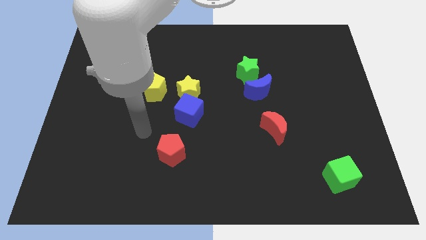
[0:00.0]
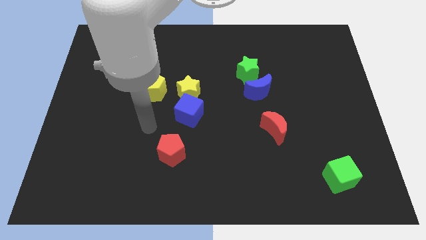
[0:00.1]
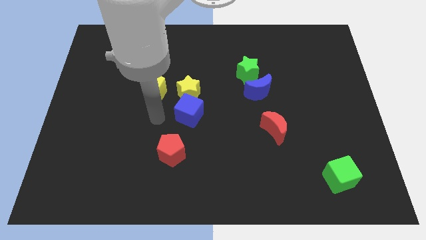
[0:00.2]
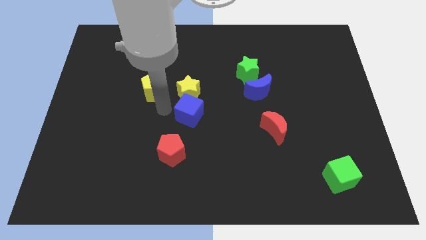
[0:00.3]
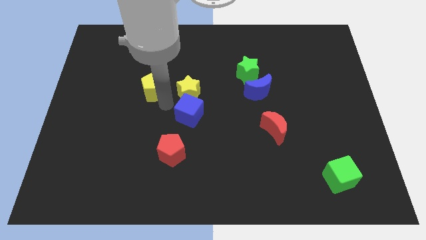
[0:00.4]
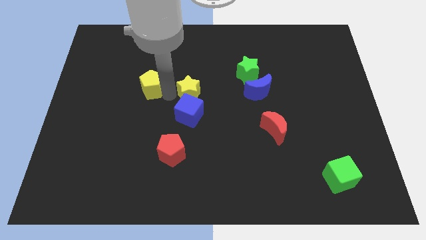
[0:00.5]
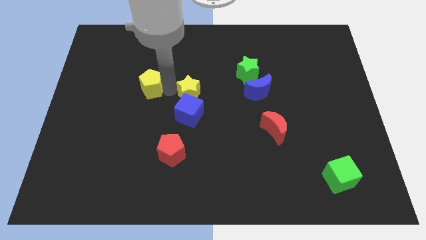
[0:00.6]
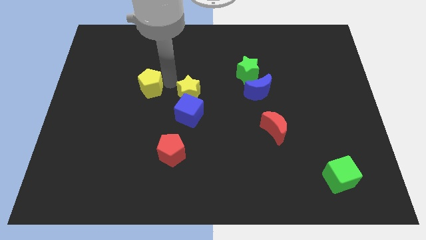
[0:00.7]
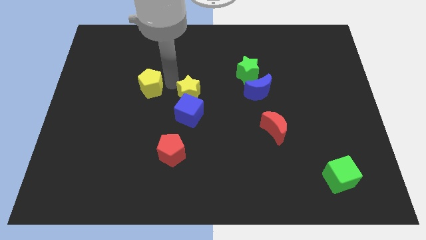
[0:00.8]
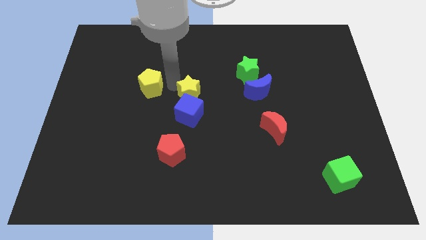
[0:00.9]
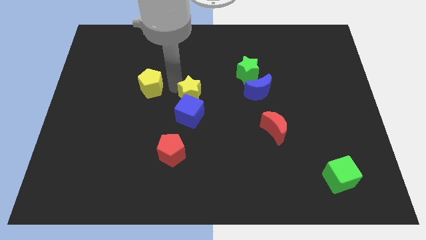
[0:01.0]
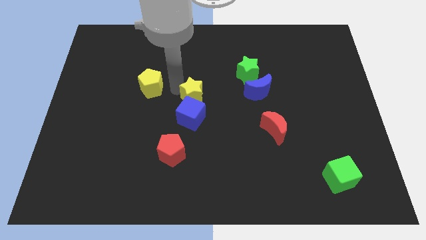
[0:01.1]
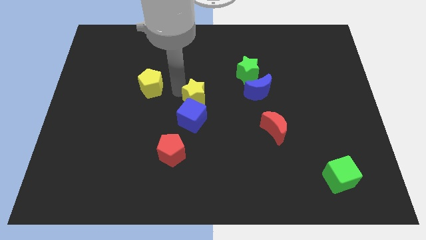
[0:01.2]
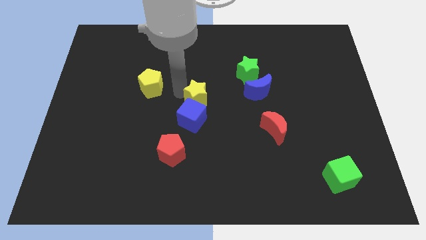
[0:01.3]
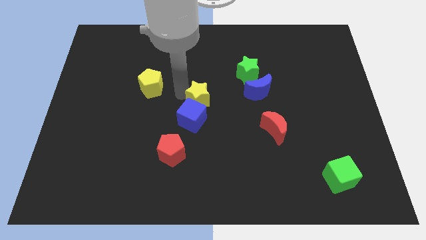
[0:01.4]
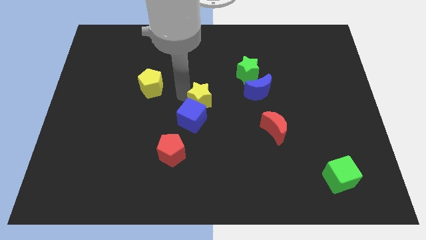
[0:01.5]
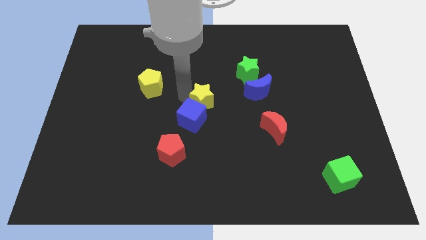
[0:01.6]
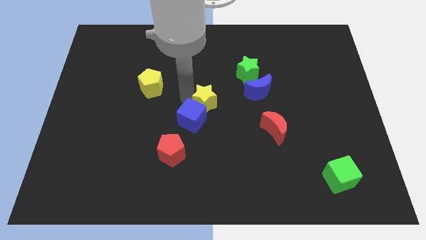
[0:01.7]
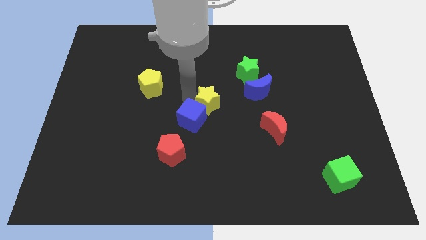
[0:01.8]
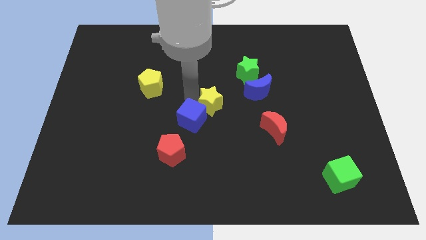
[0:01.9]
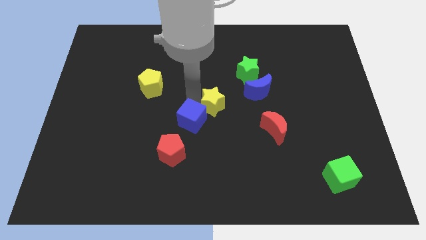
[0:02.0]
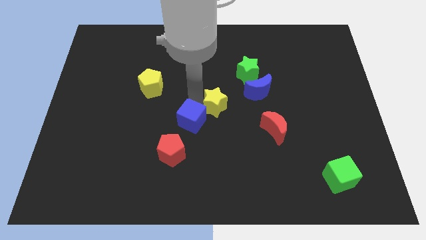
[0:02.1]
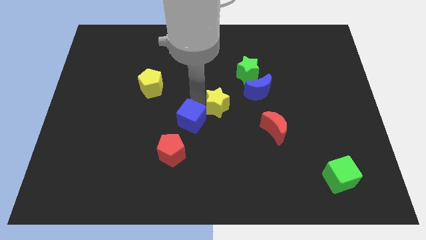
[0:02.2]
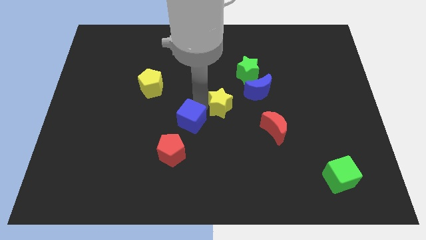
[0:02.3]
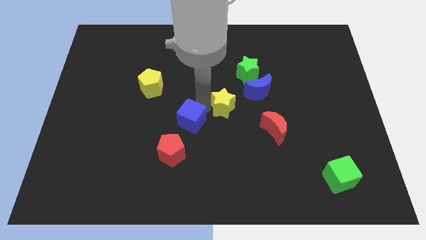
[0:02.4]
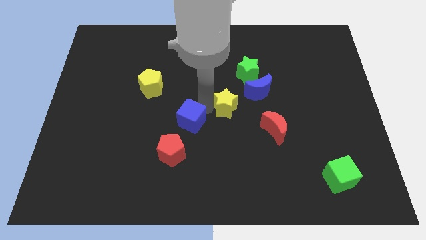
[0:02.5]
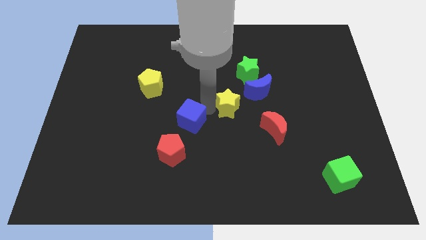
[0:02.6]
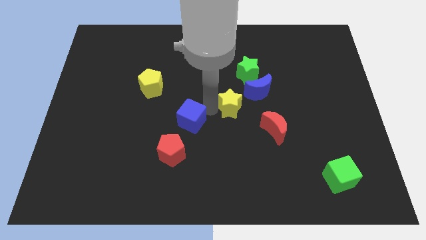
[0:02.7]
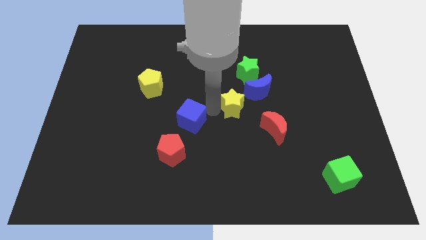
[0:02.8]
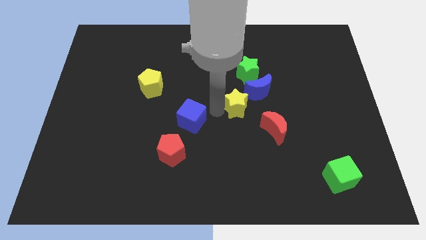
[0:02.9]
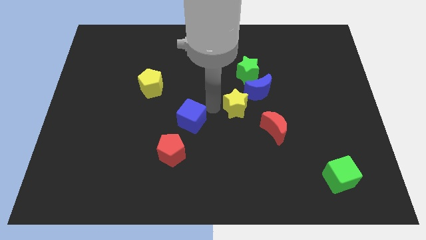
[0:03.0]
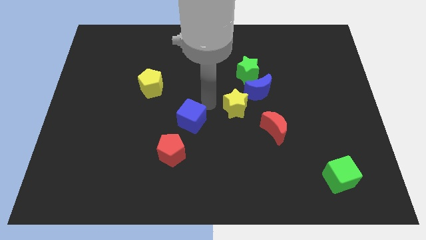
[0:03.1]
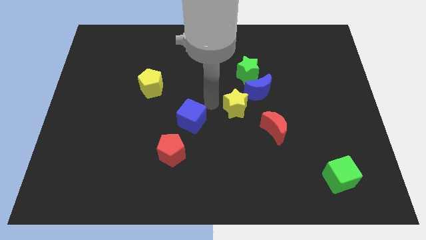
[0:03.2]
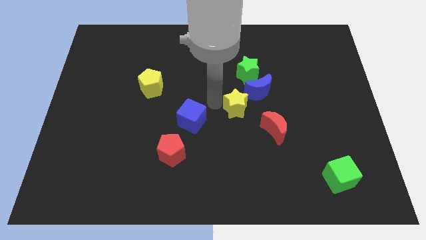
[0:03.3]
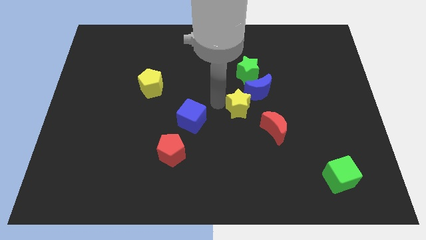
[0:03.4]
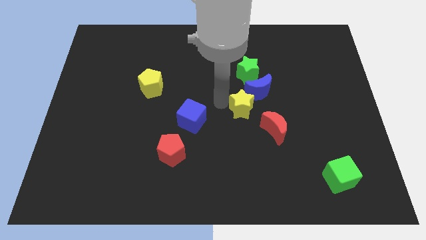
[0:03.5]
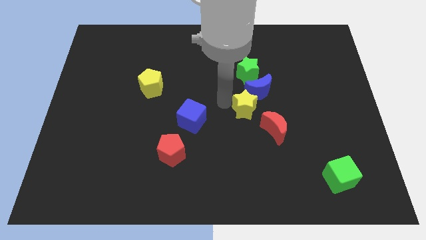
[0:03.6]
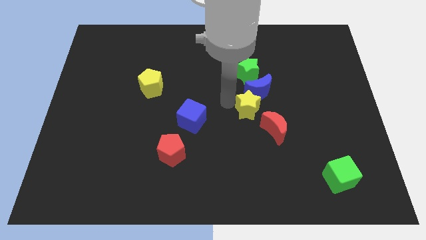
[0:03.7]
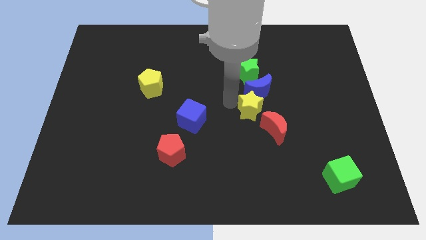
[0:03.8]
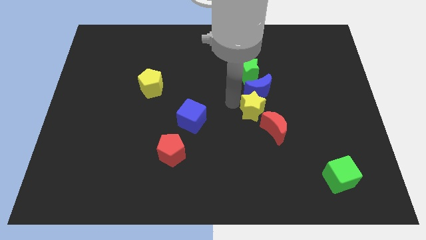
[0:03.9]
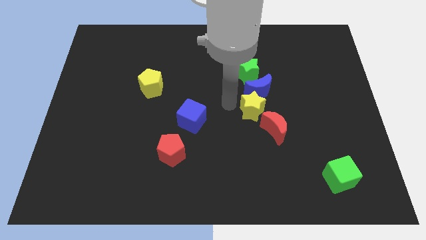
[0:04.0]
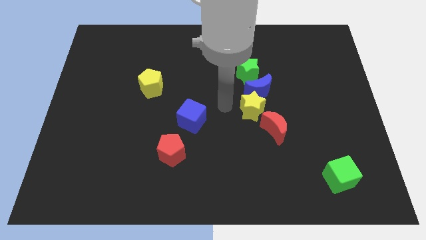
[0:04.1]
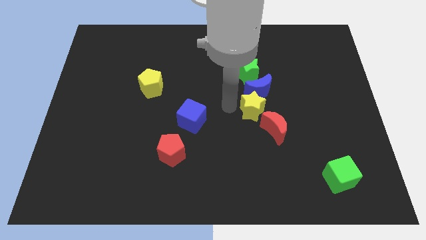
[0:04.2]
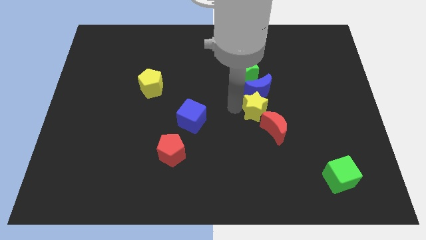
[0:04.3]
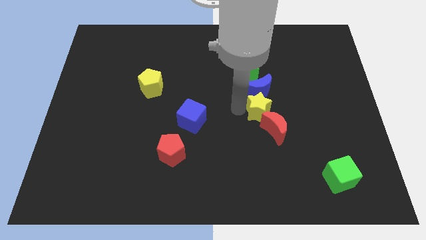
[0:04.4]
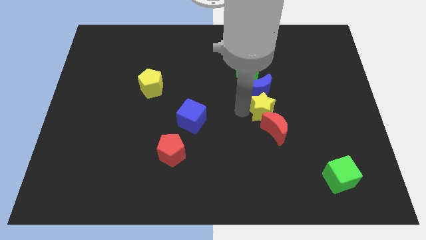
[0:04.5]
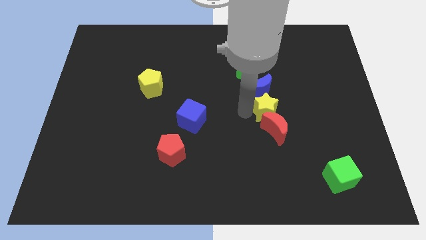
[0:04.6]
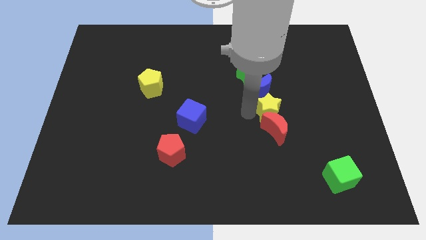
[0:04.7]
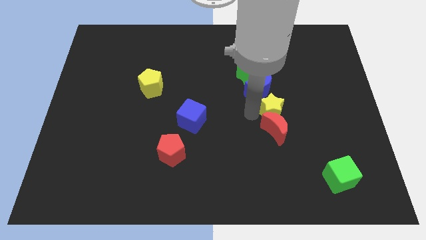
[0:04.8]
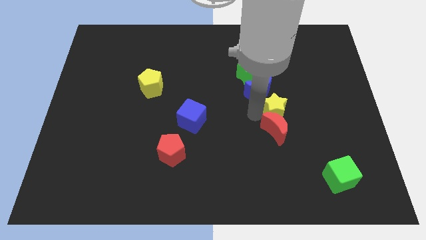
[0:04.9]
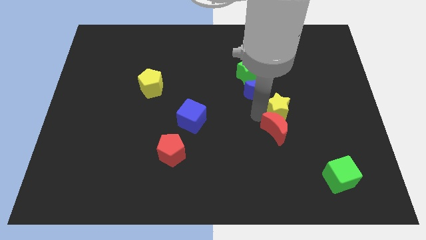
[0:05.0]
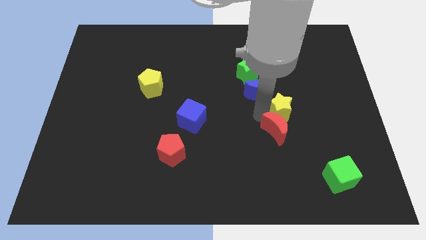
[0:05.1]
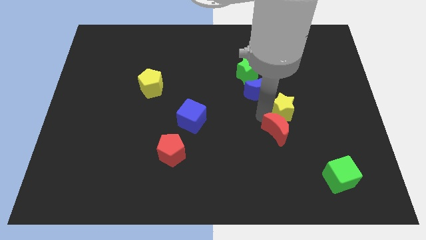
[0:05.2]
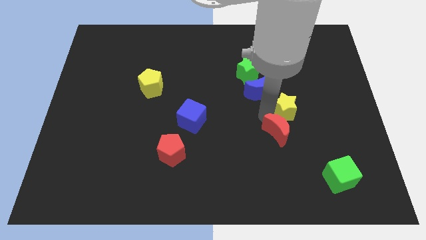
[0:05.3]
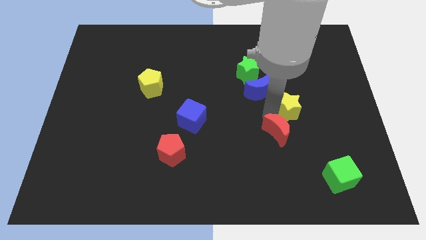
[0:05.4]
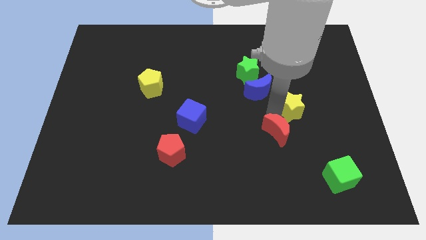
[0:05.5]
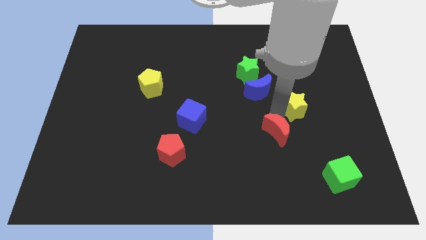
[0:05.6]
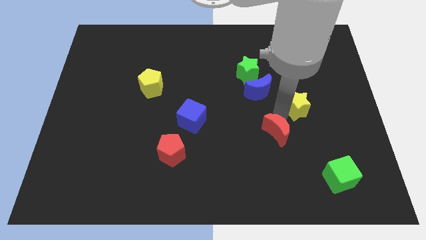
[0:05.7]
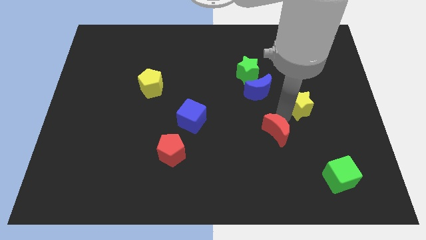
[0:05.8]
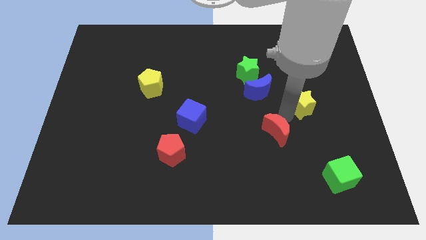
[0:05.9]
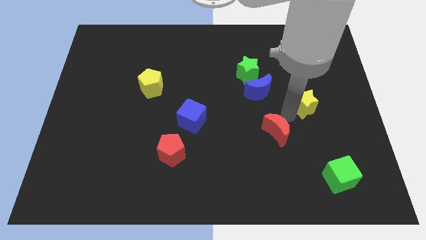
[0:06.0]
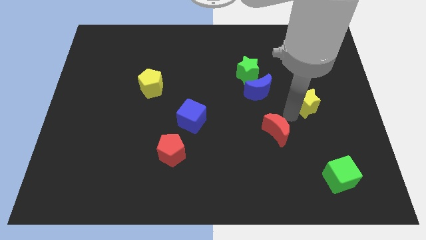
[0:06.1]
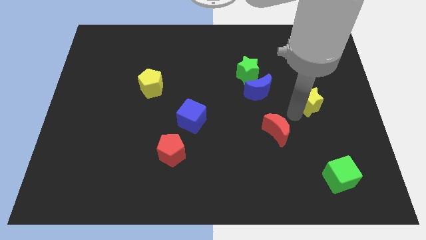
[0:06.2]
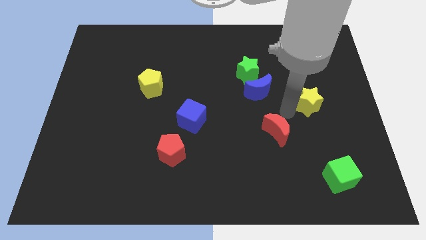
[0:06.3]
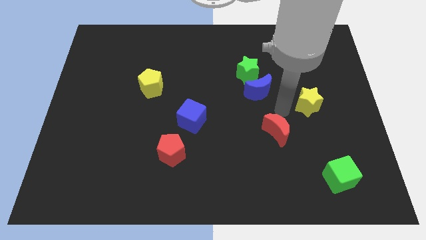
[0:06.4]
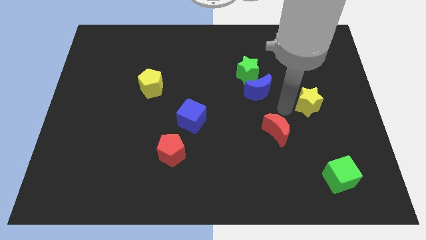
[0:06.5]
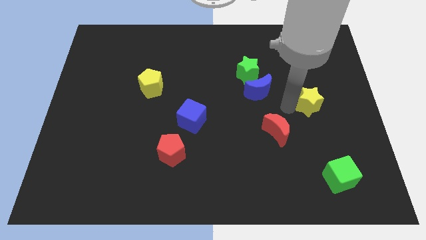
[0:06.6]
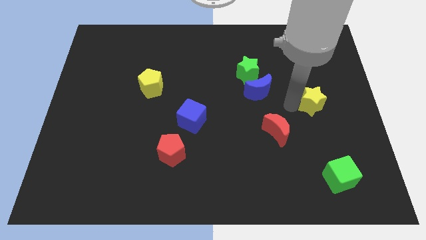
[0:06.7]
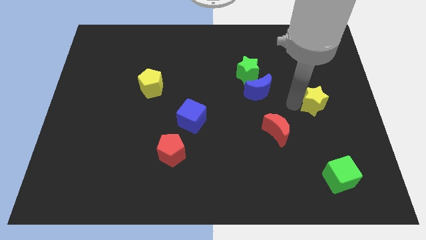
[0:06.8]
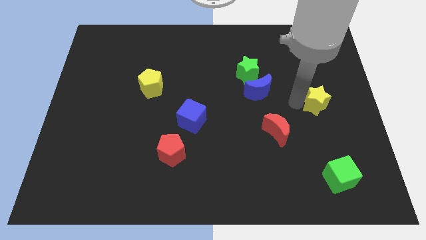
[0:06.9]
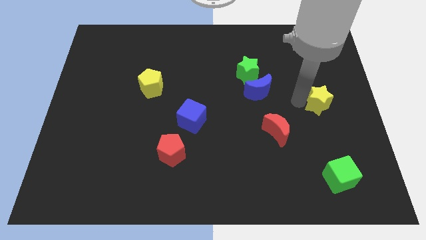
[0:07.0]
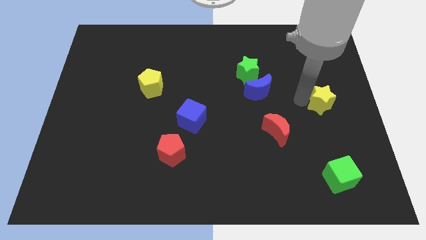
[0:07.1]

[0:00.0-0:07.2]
put the yellow star to the right side
